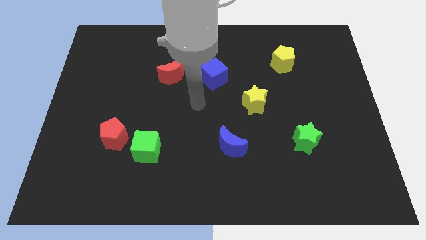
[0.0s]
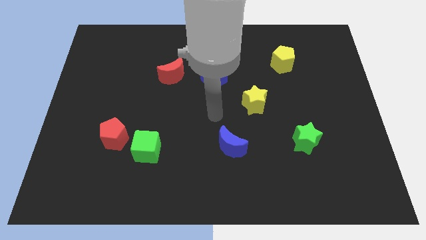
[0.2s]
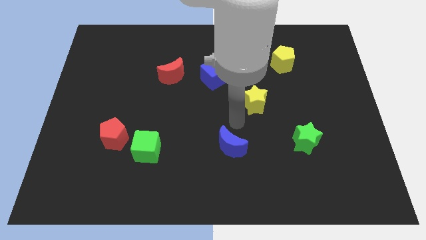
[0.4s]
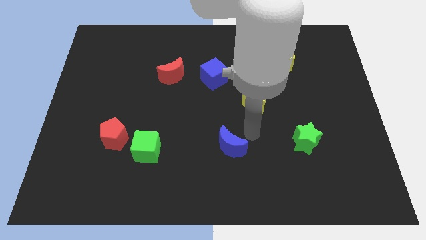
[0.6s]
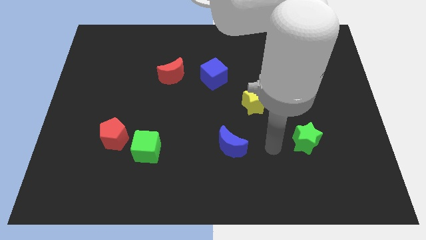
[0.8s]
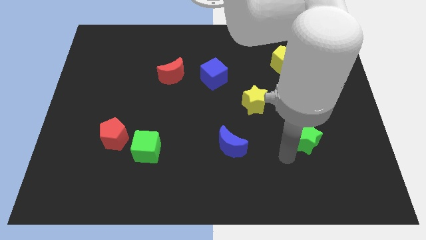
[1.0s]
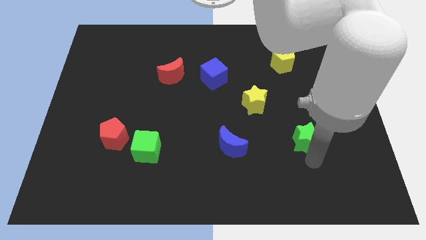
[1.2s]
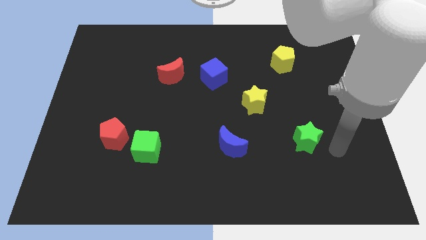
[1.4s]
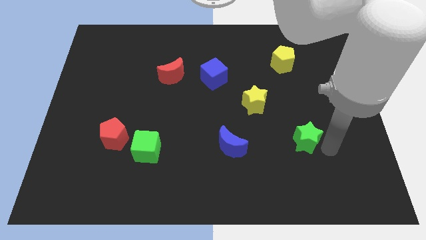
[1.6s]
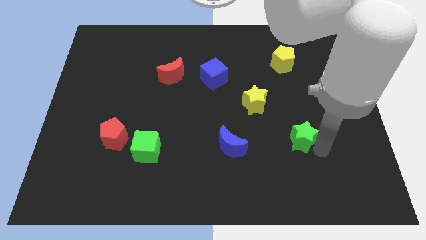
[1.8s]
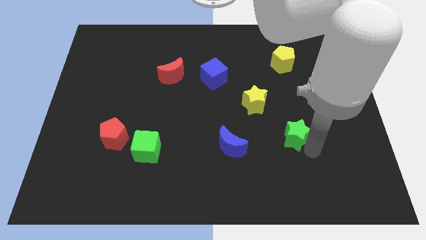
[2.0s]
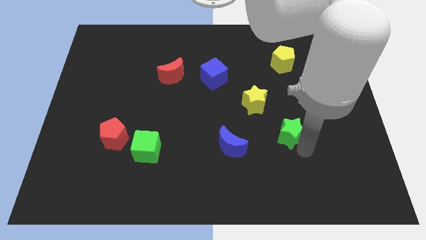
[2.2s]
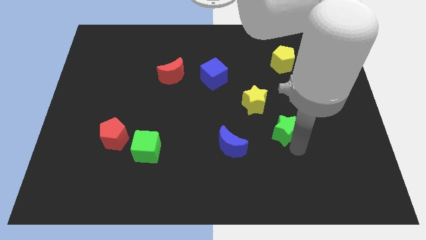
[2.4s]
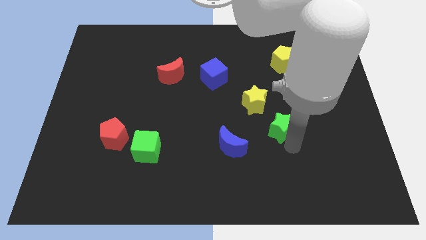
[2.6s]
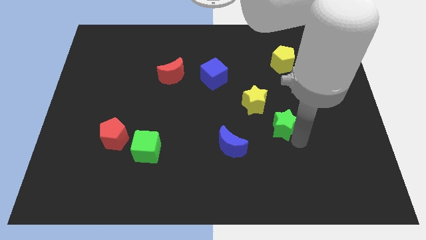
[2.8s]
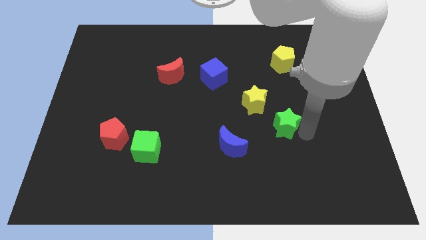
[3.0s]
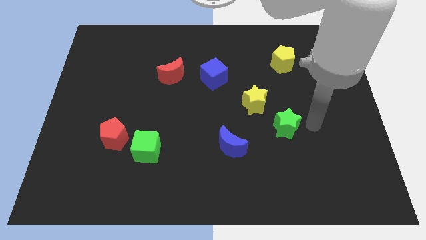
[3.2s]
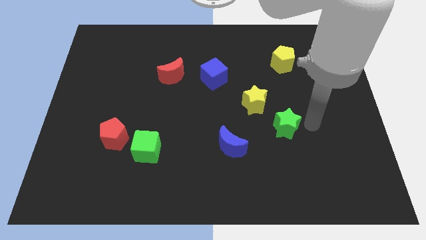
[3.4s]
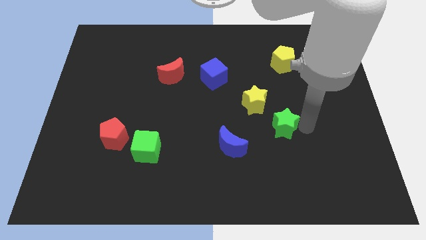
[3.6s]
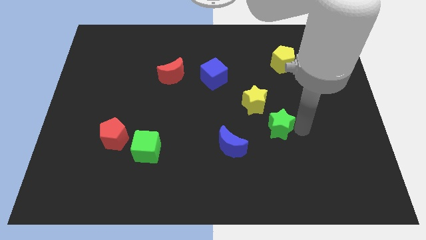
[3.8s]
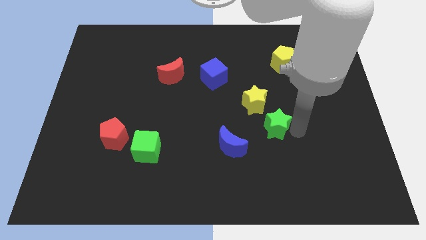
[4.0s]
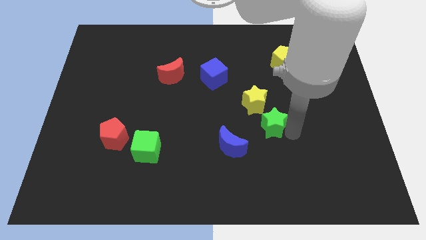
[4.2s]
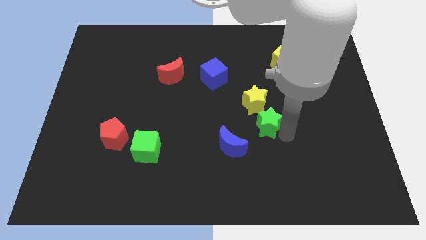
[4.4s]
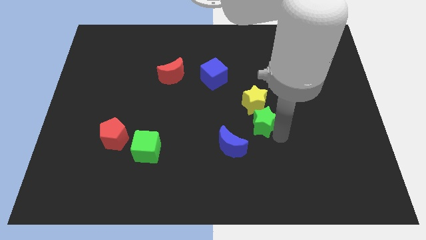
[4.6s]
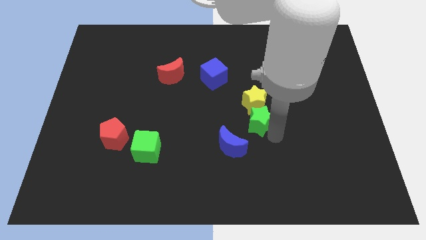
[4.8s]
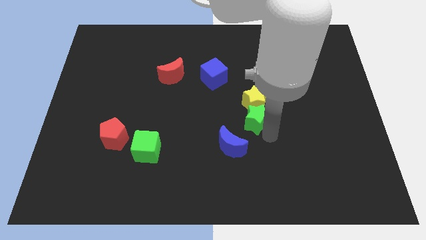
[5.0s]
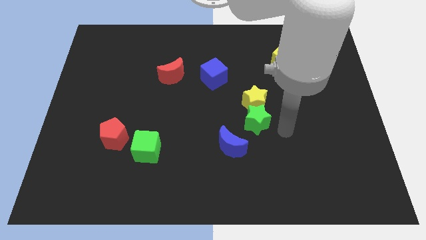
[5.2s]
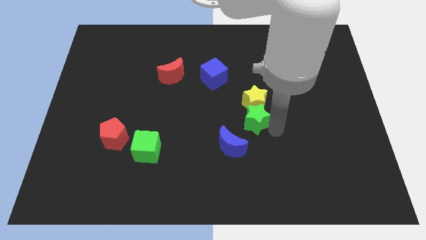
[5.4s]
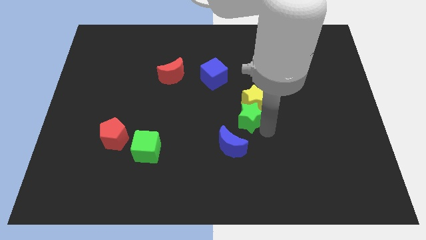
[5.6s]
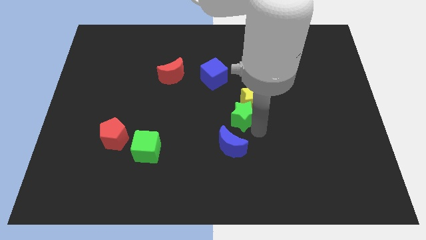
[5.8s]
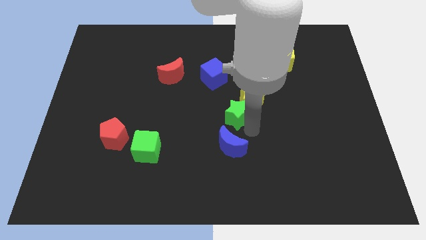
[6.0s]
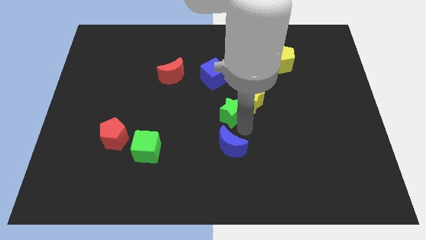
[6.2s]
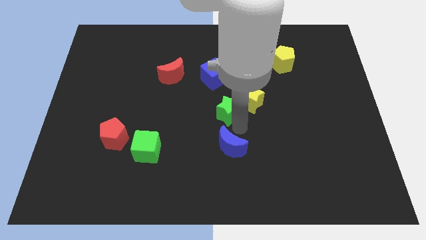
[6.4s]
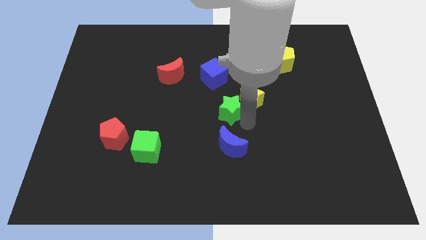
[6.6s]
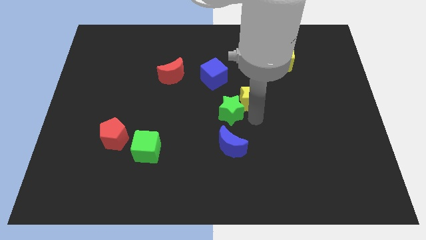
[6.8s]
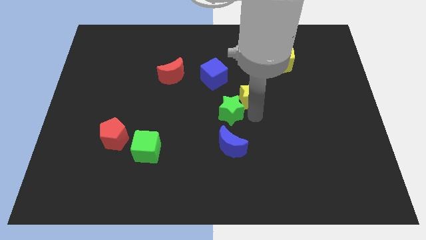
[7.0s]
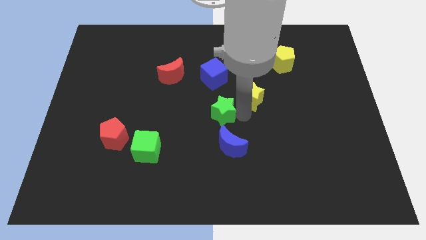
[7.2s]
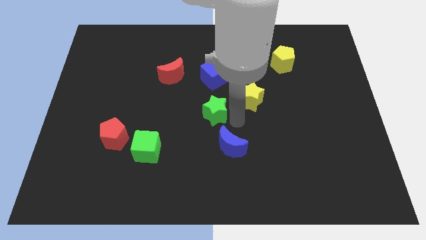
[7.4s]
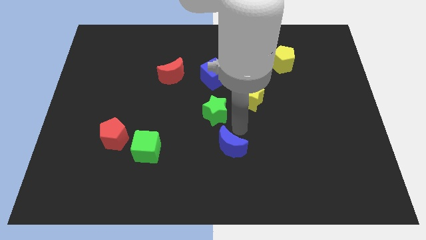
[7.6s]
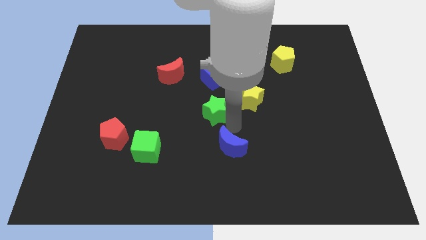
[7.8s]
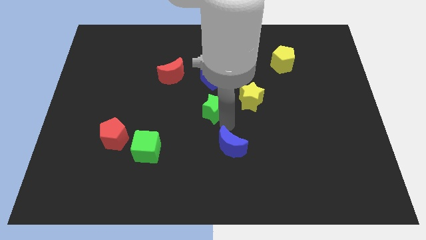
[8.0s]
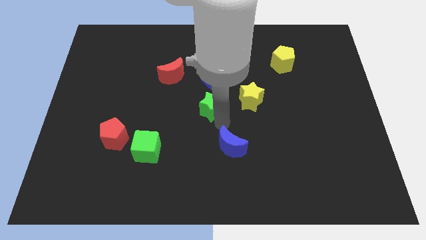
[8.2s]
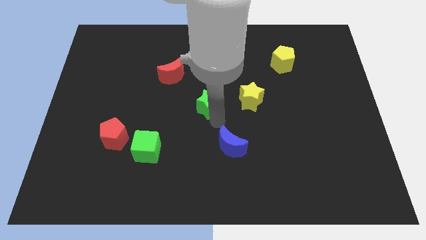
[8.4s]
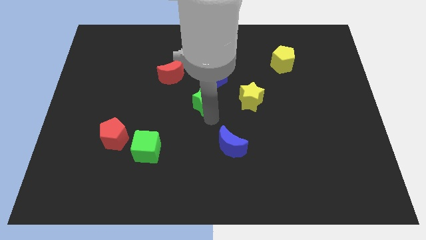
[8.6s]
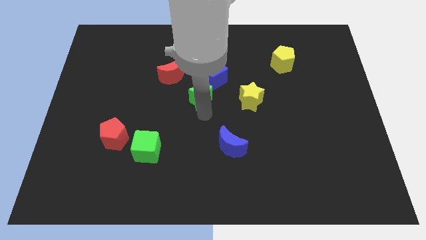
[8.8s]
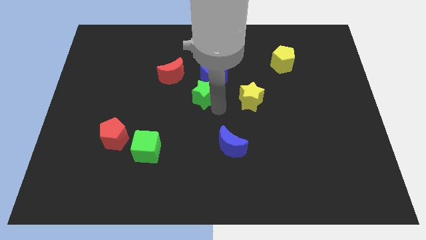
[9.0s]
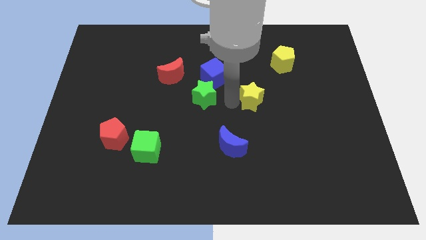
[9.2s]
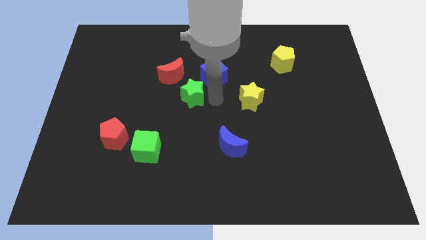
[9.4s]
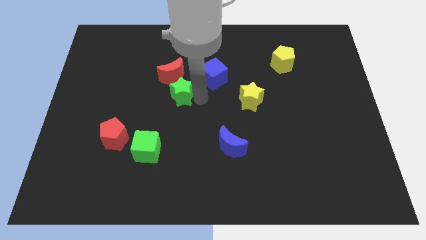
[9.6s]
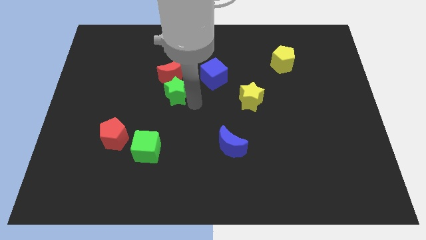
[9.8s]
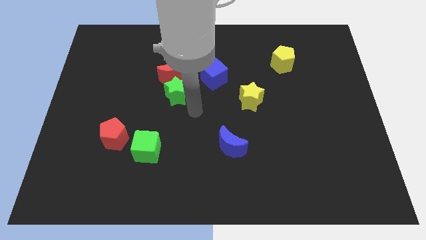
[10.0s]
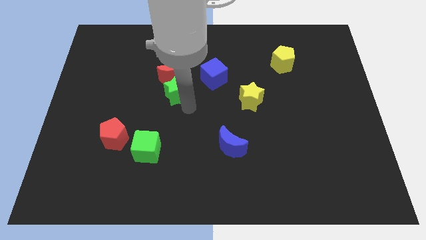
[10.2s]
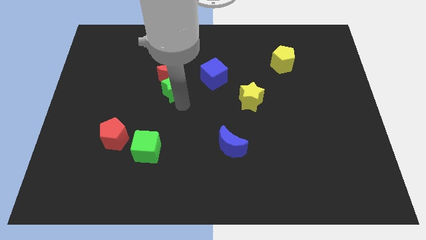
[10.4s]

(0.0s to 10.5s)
push the green star to the left side of the blue cube

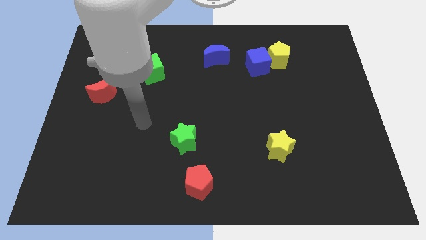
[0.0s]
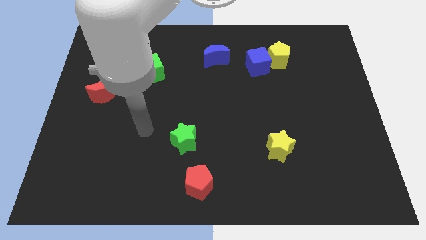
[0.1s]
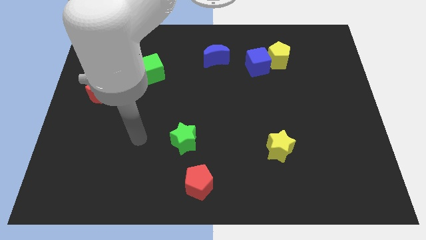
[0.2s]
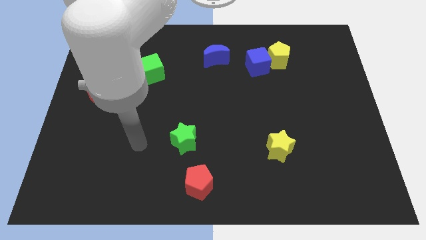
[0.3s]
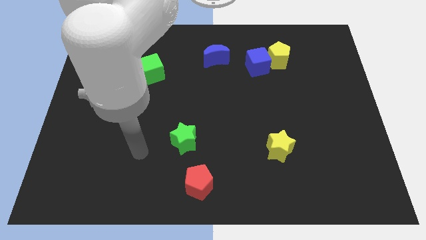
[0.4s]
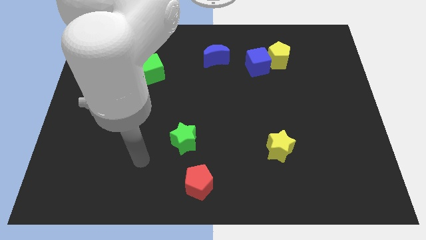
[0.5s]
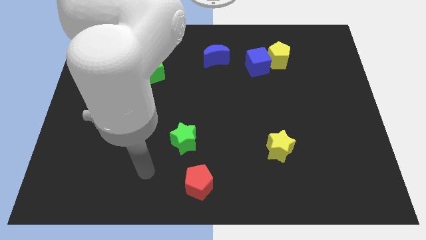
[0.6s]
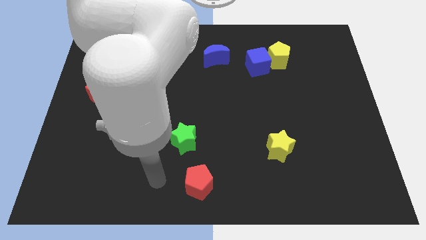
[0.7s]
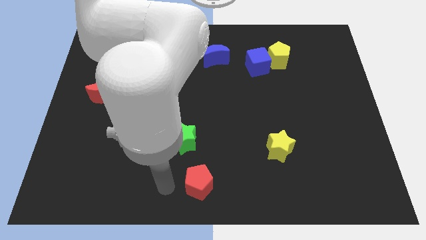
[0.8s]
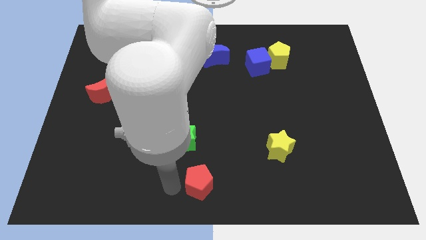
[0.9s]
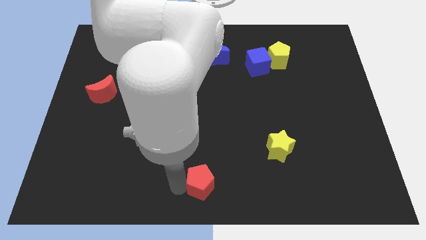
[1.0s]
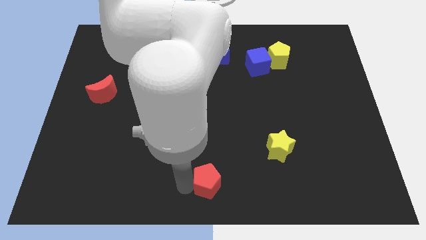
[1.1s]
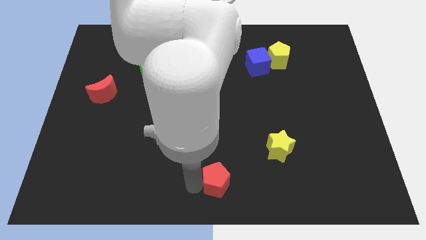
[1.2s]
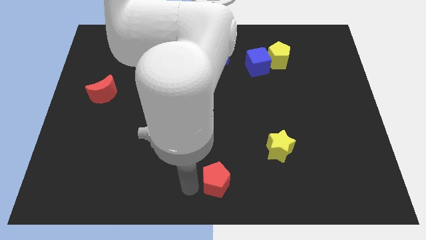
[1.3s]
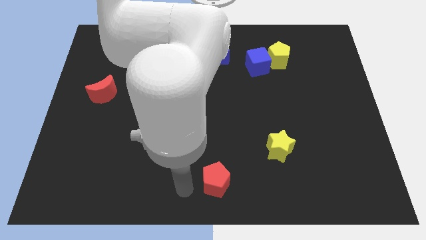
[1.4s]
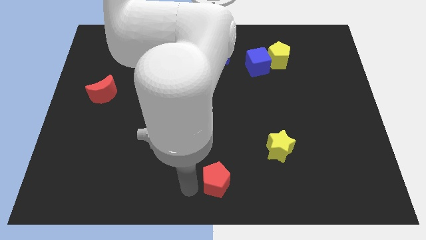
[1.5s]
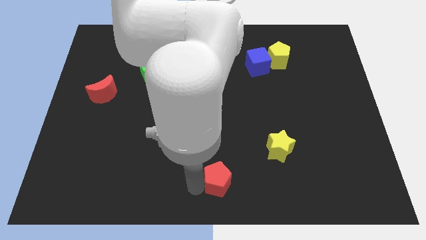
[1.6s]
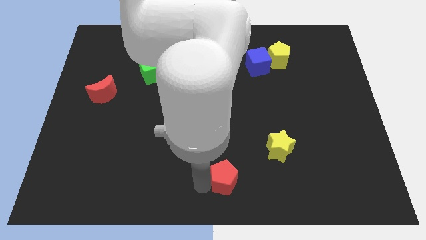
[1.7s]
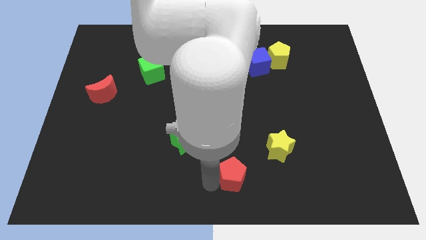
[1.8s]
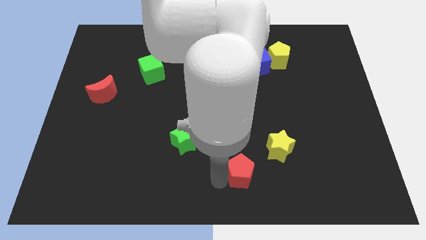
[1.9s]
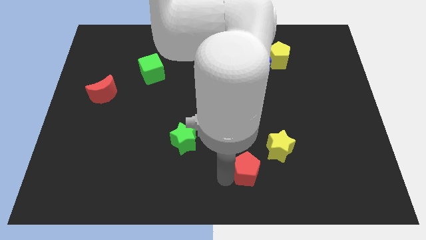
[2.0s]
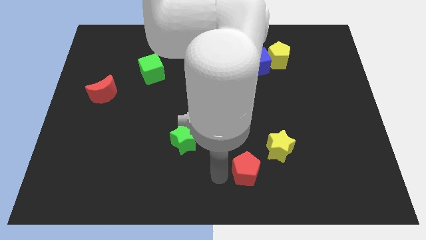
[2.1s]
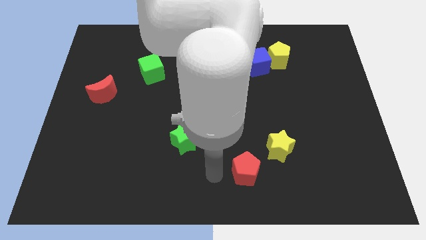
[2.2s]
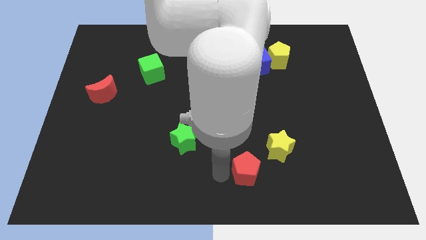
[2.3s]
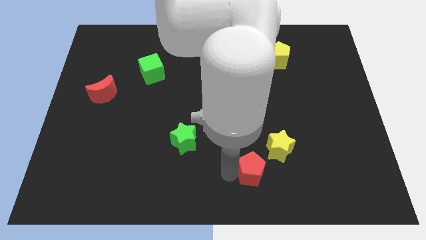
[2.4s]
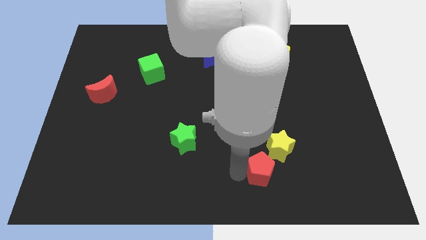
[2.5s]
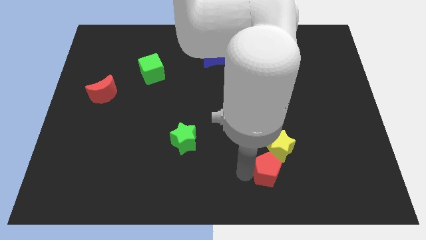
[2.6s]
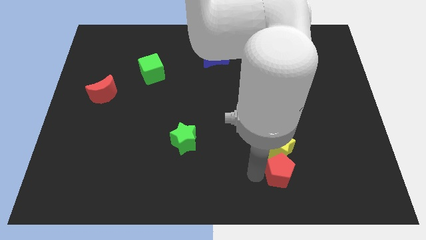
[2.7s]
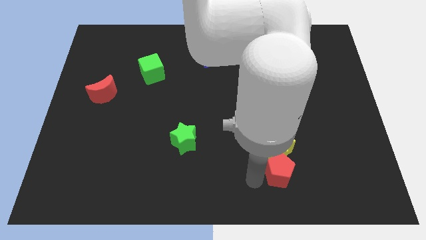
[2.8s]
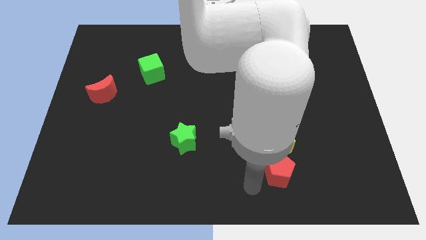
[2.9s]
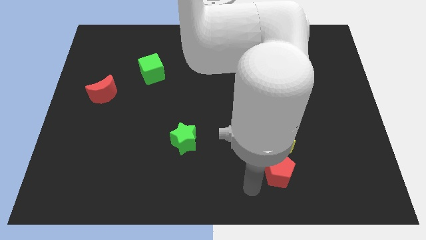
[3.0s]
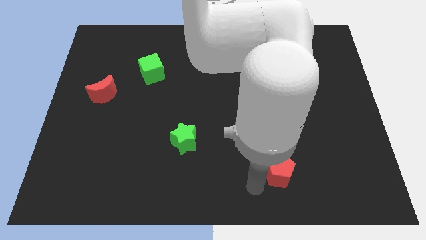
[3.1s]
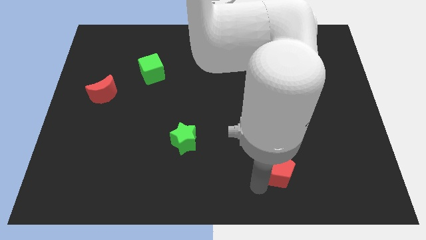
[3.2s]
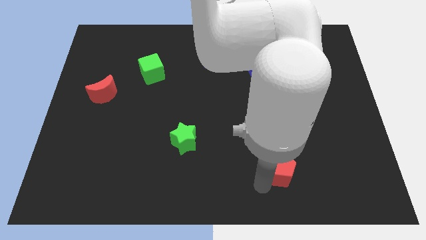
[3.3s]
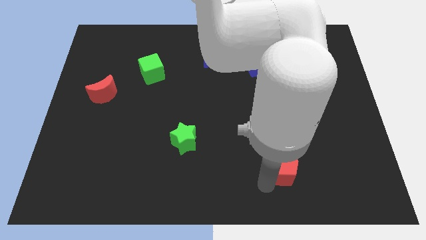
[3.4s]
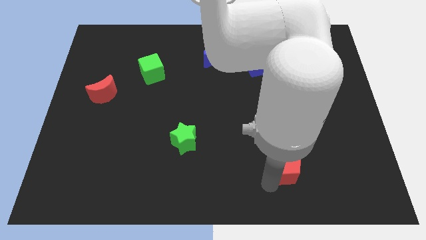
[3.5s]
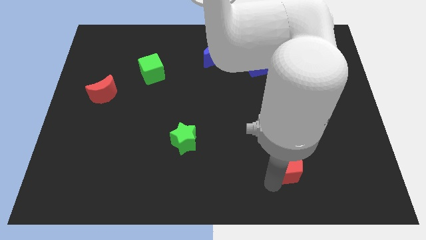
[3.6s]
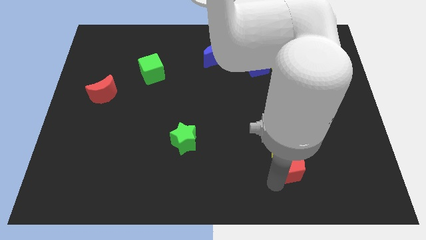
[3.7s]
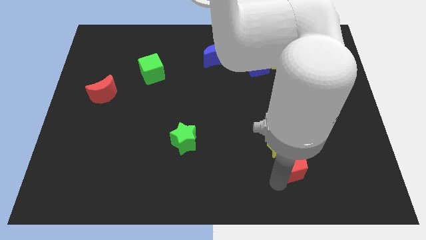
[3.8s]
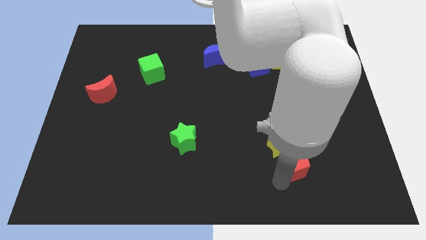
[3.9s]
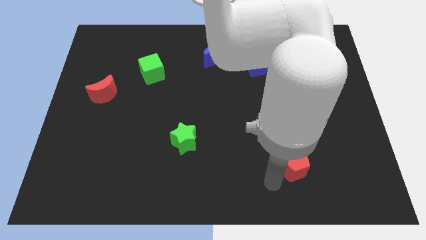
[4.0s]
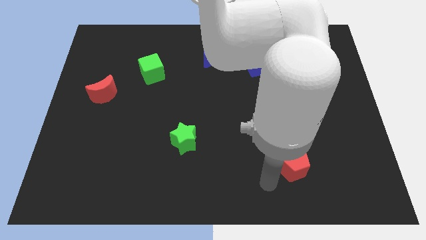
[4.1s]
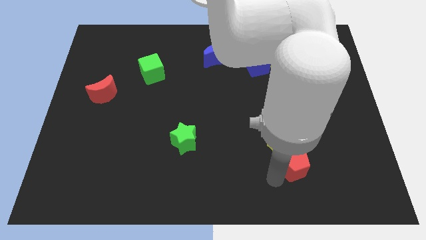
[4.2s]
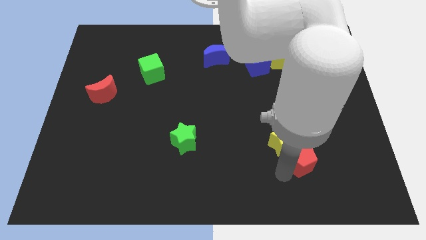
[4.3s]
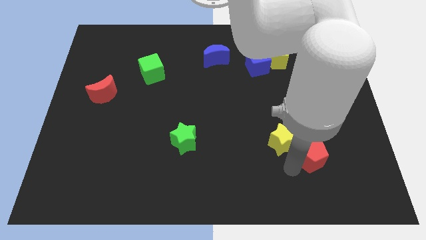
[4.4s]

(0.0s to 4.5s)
slide the red pentagon to the right of the yellow star
